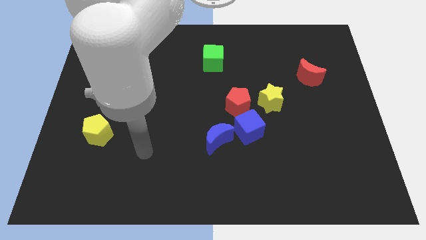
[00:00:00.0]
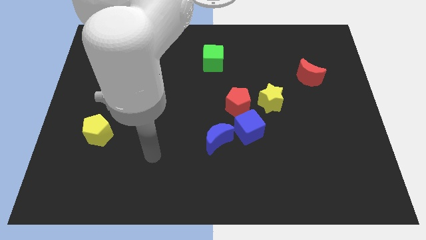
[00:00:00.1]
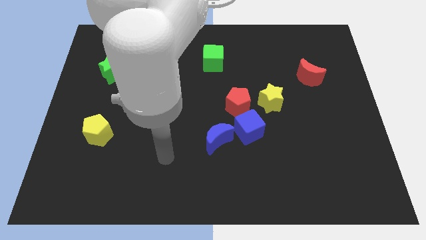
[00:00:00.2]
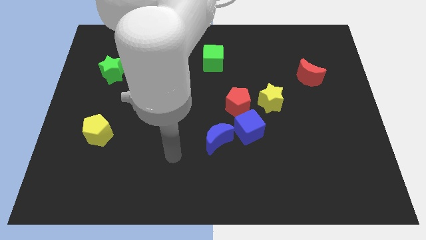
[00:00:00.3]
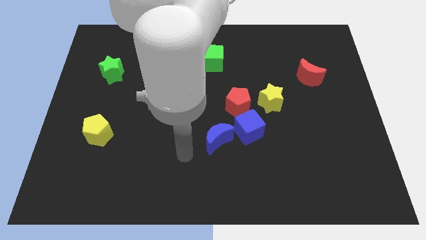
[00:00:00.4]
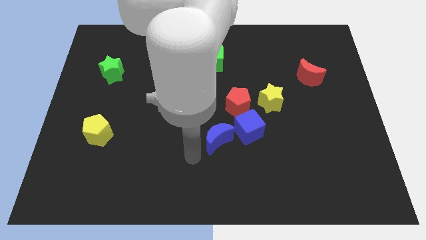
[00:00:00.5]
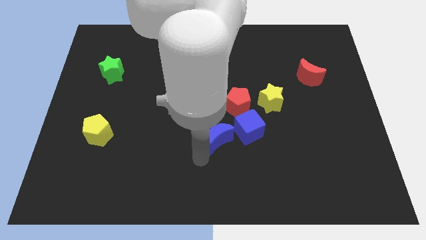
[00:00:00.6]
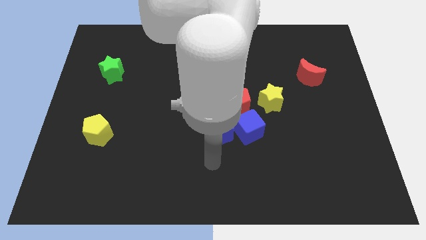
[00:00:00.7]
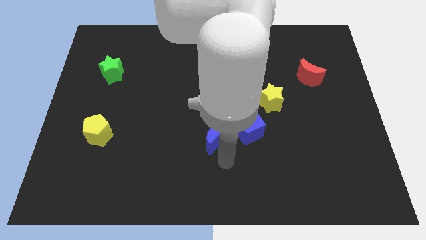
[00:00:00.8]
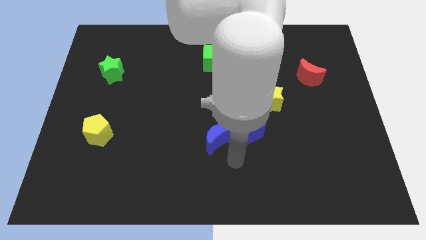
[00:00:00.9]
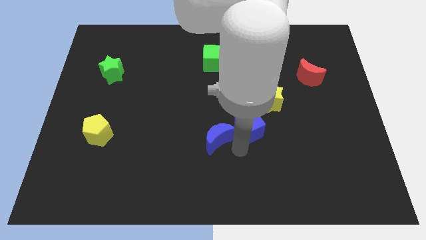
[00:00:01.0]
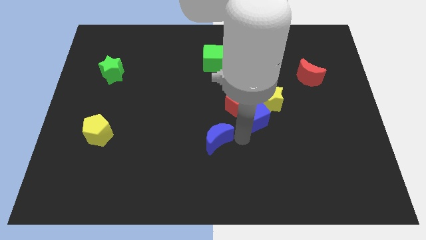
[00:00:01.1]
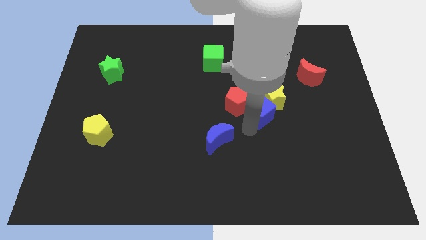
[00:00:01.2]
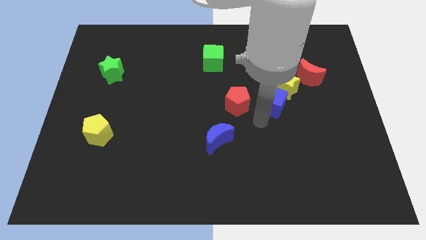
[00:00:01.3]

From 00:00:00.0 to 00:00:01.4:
move the red pentagon away from the blue cube and yellow star

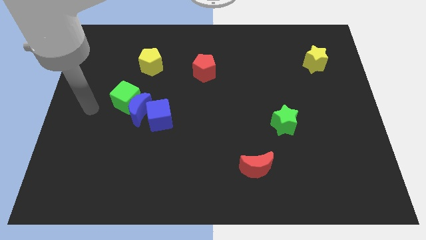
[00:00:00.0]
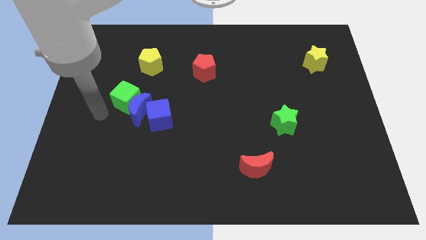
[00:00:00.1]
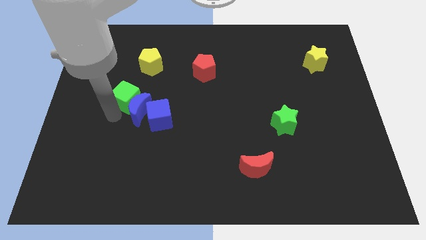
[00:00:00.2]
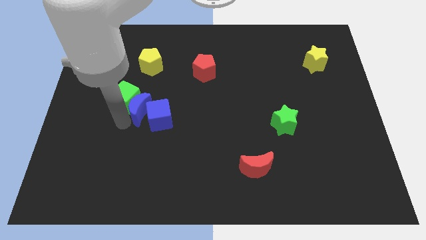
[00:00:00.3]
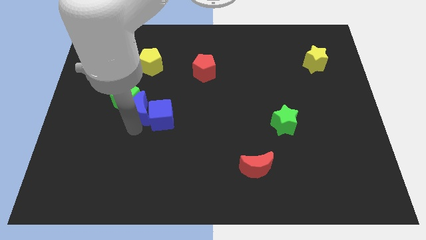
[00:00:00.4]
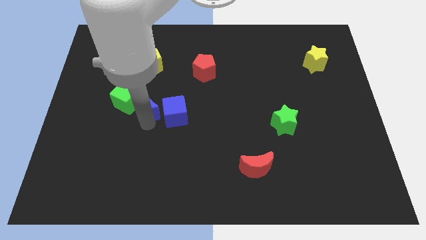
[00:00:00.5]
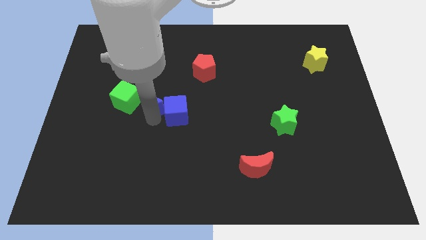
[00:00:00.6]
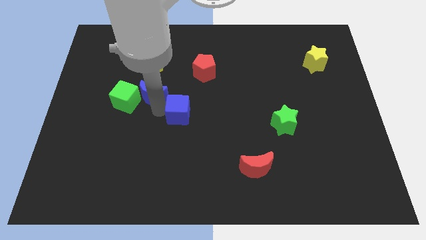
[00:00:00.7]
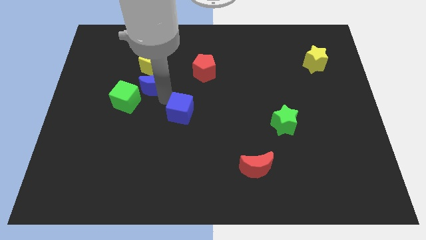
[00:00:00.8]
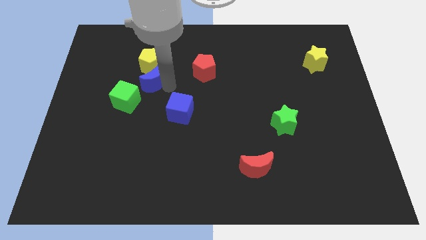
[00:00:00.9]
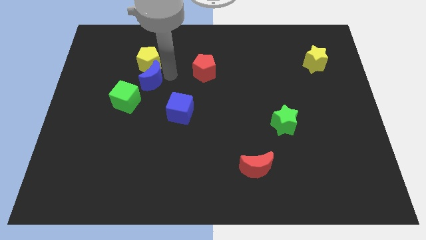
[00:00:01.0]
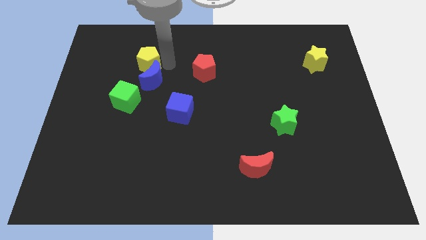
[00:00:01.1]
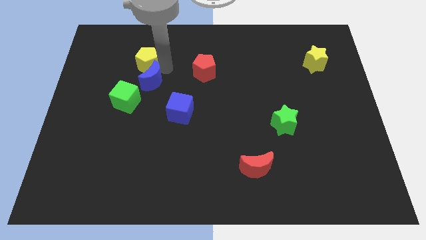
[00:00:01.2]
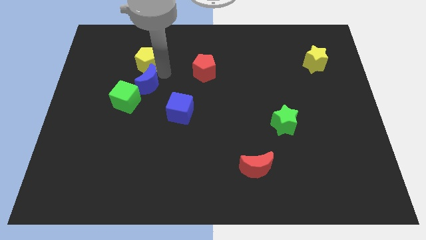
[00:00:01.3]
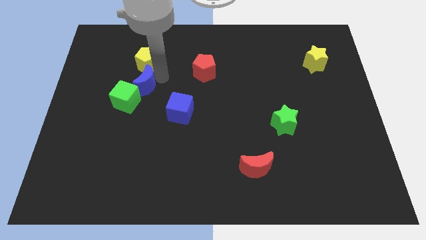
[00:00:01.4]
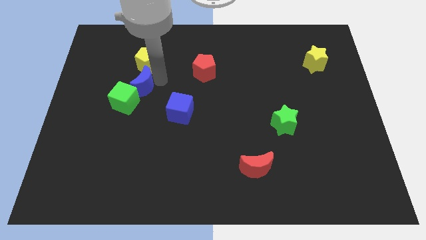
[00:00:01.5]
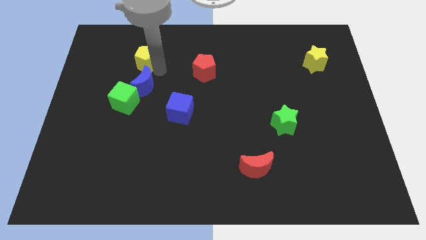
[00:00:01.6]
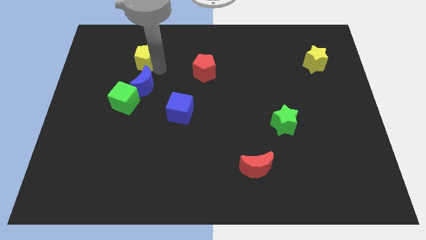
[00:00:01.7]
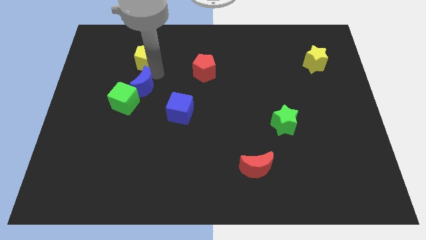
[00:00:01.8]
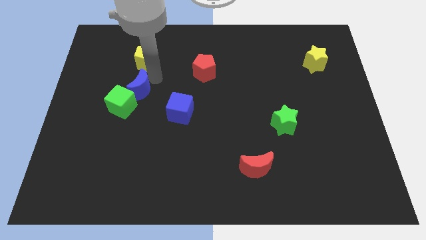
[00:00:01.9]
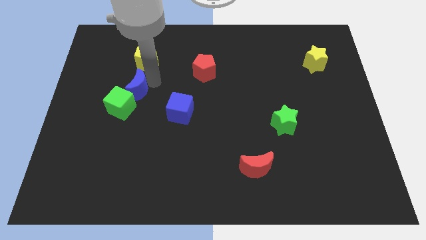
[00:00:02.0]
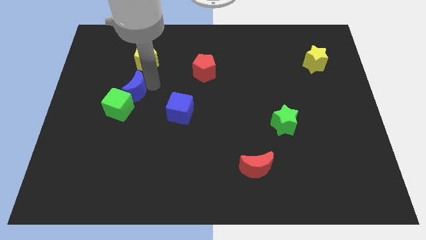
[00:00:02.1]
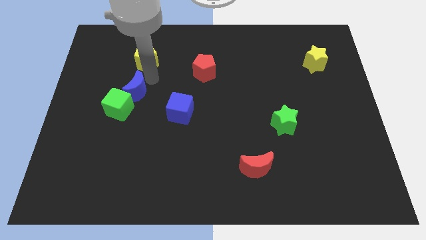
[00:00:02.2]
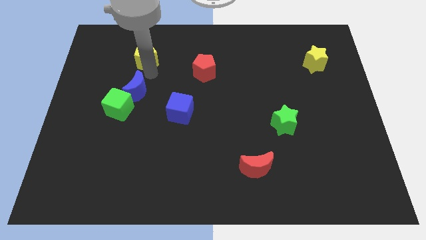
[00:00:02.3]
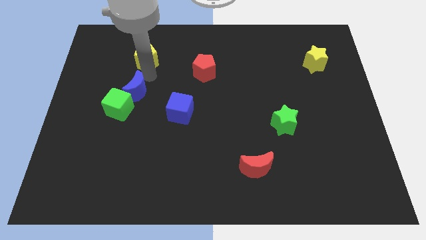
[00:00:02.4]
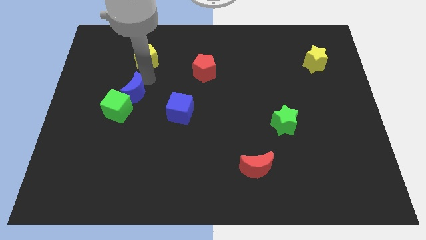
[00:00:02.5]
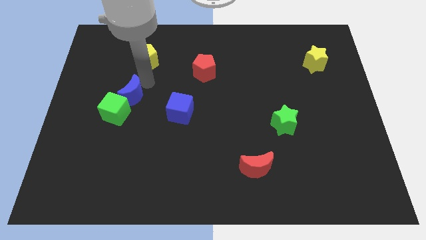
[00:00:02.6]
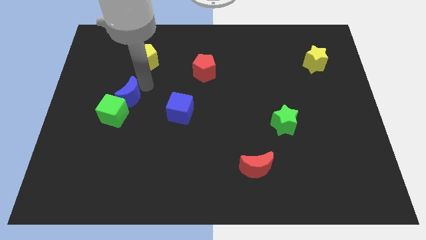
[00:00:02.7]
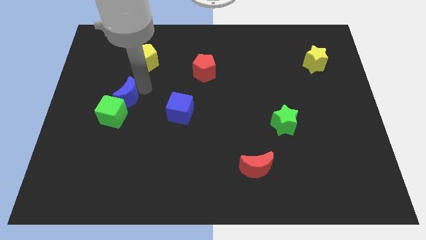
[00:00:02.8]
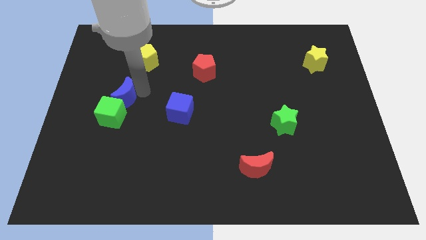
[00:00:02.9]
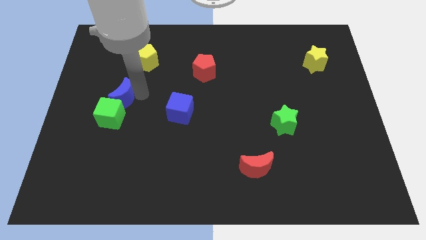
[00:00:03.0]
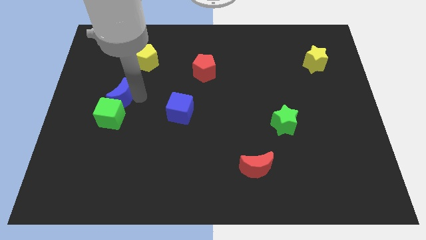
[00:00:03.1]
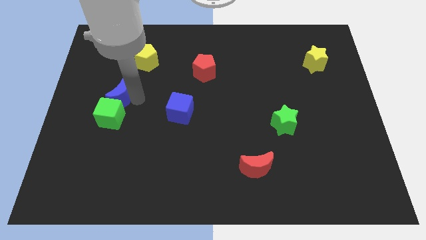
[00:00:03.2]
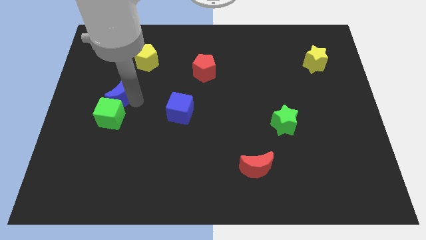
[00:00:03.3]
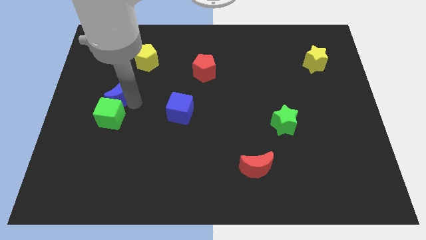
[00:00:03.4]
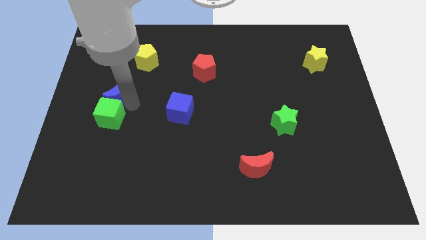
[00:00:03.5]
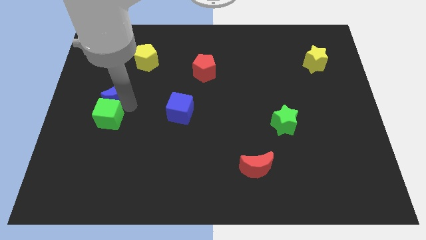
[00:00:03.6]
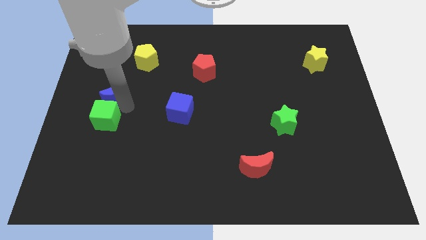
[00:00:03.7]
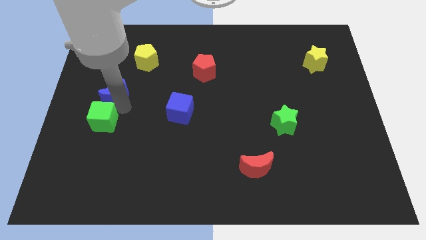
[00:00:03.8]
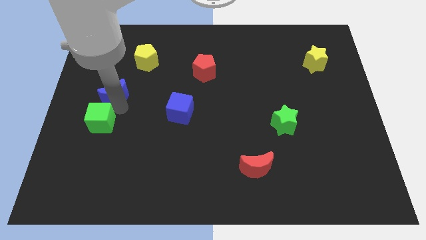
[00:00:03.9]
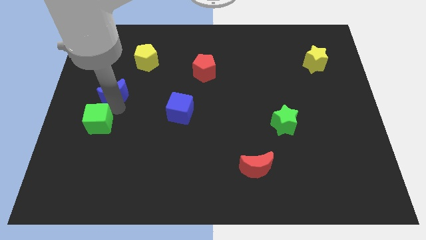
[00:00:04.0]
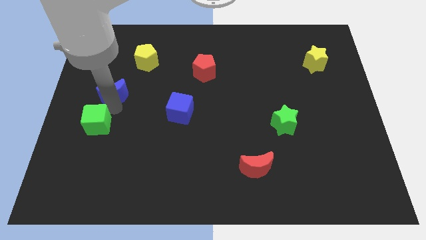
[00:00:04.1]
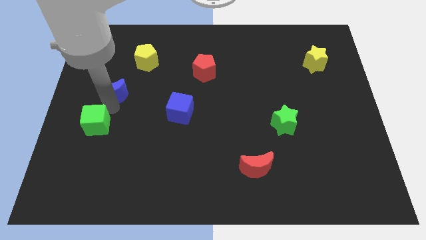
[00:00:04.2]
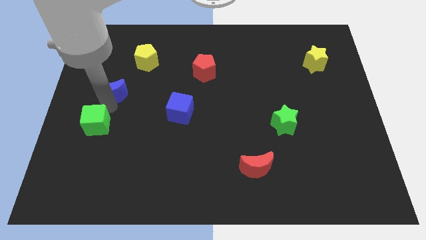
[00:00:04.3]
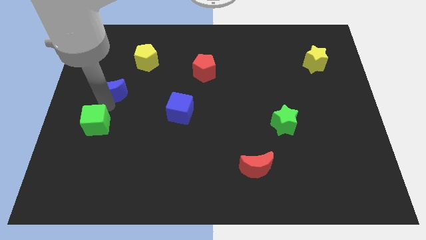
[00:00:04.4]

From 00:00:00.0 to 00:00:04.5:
pull the blue moon apart from the green cube and blue cube

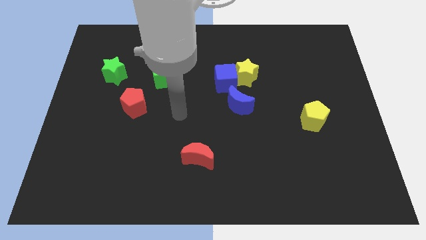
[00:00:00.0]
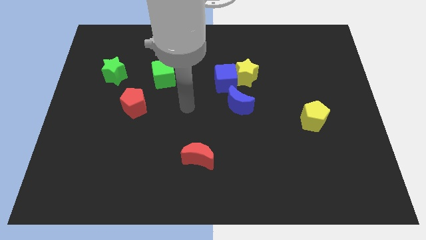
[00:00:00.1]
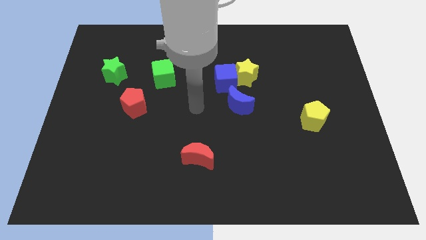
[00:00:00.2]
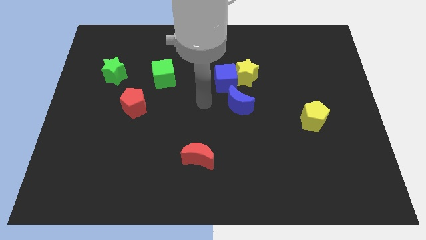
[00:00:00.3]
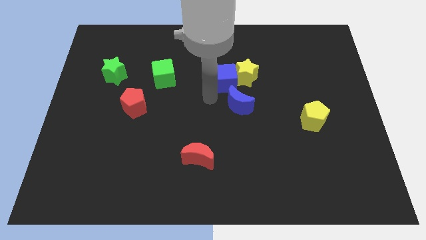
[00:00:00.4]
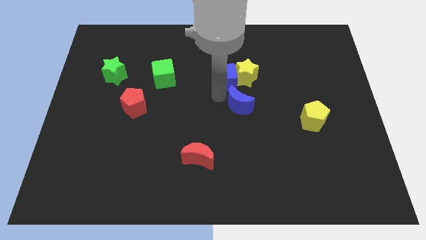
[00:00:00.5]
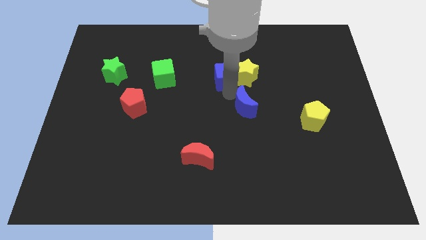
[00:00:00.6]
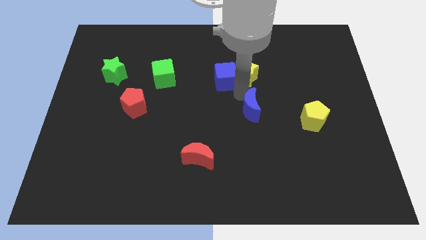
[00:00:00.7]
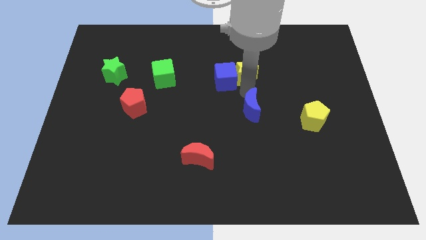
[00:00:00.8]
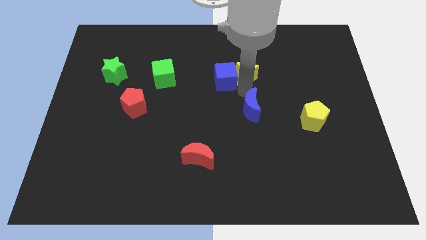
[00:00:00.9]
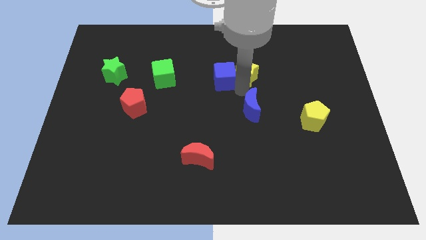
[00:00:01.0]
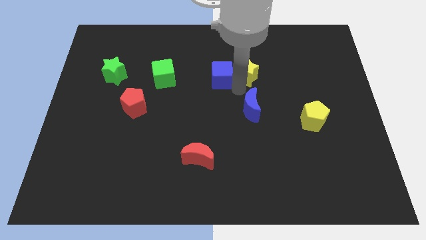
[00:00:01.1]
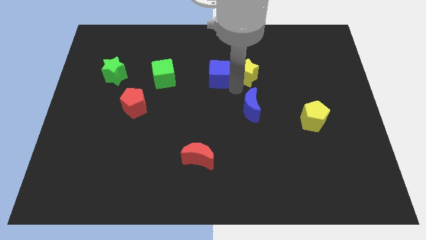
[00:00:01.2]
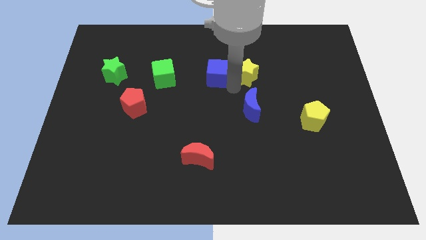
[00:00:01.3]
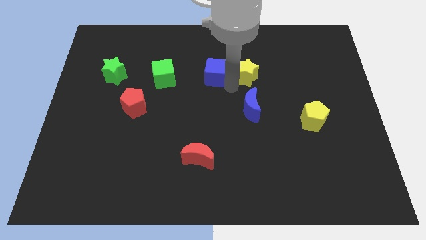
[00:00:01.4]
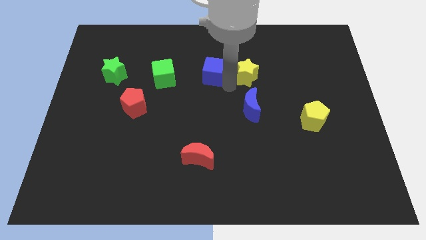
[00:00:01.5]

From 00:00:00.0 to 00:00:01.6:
separate the blue cube from the yellow star and blue moon

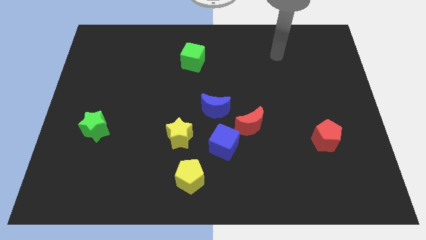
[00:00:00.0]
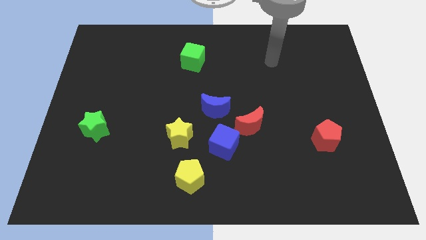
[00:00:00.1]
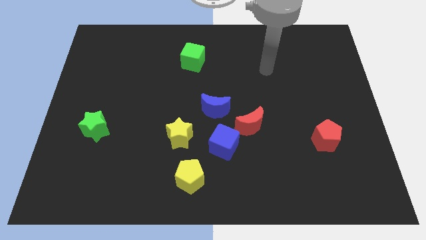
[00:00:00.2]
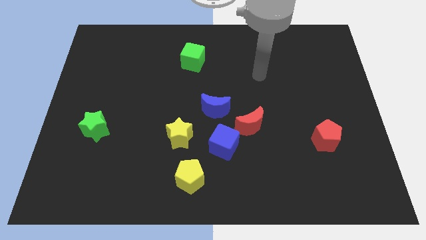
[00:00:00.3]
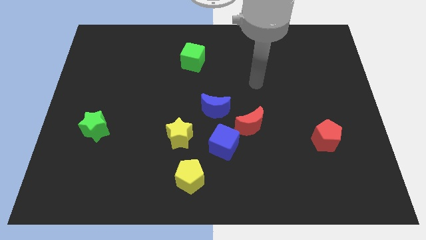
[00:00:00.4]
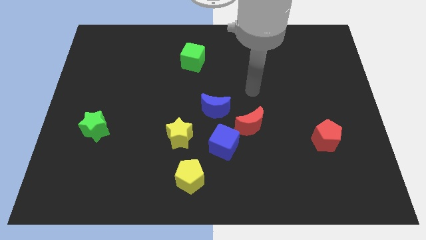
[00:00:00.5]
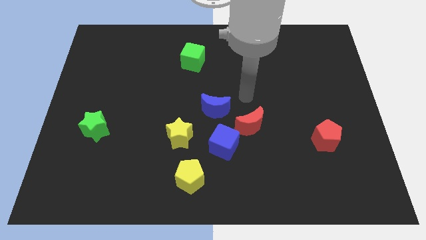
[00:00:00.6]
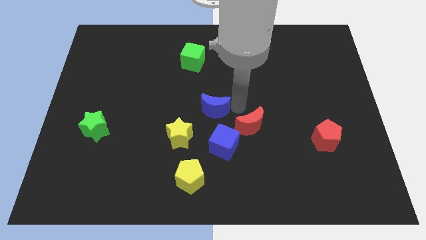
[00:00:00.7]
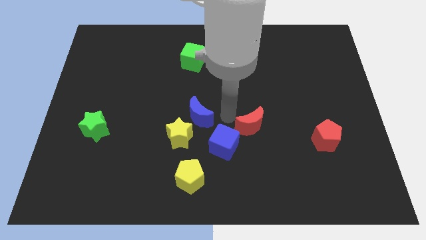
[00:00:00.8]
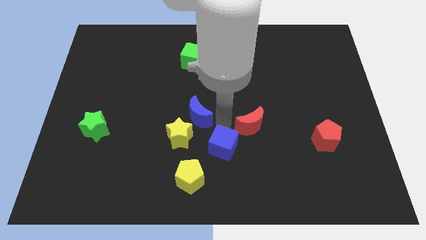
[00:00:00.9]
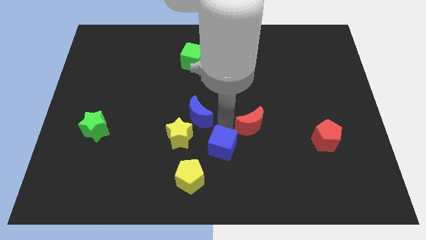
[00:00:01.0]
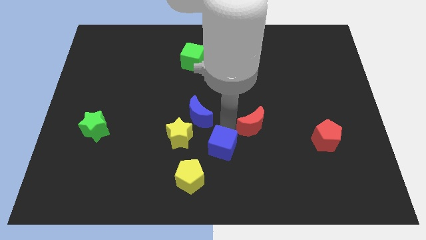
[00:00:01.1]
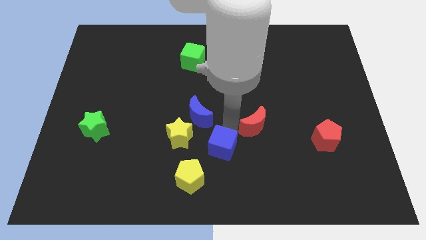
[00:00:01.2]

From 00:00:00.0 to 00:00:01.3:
separate the red moon from the blue cube and blue moon

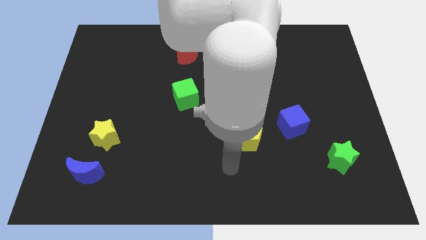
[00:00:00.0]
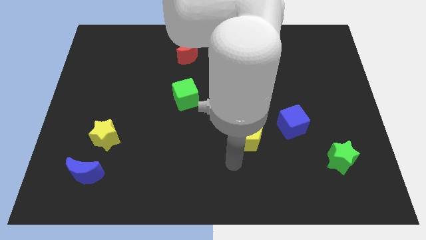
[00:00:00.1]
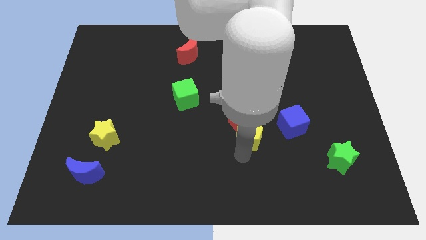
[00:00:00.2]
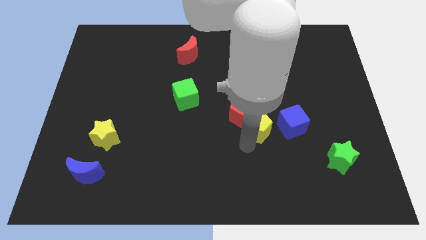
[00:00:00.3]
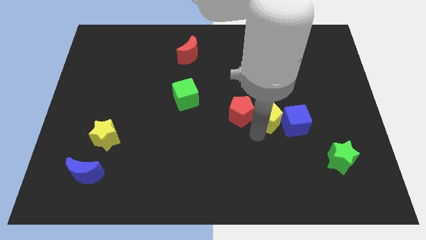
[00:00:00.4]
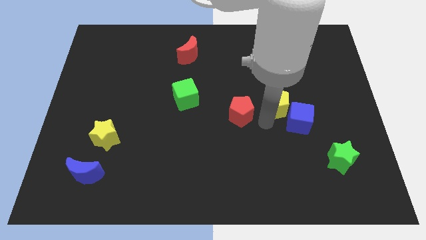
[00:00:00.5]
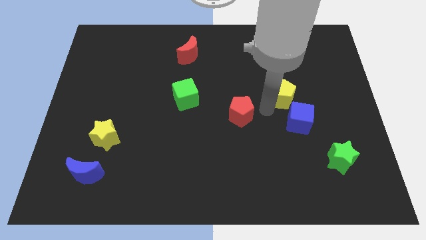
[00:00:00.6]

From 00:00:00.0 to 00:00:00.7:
move the red pentagon away from the yellow pentagon
